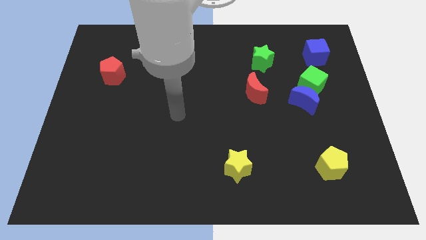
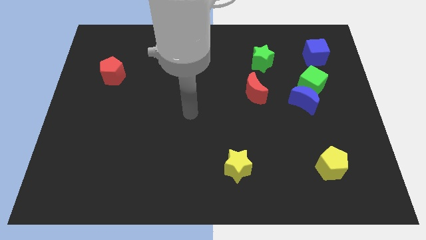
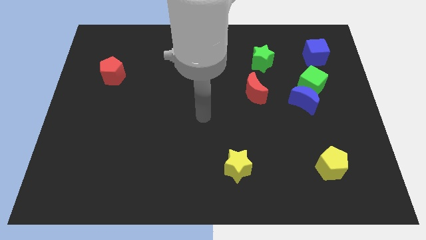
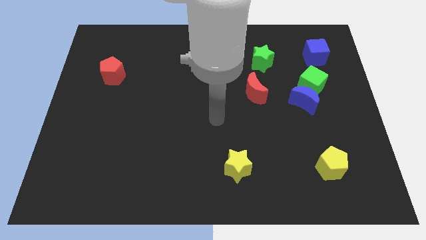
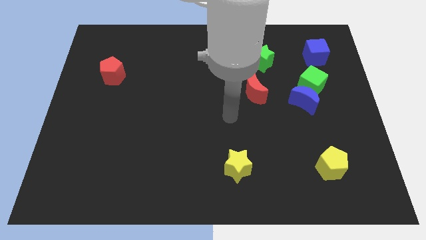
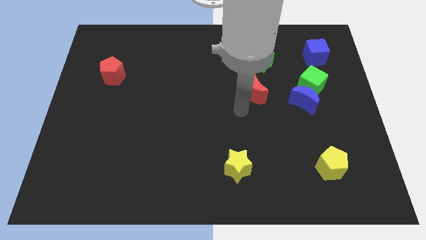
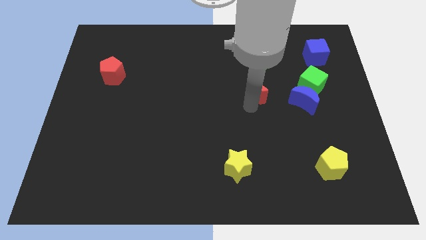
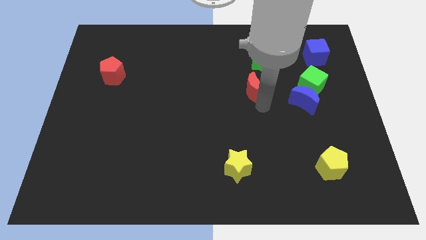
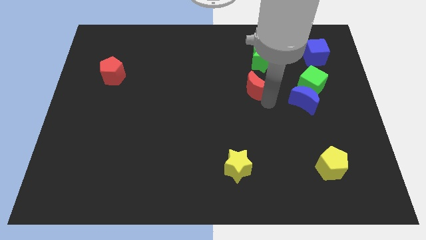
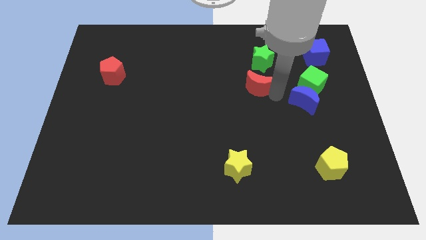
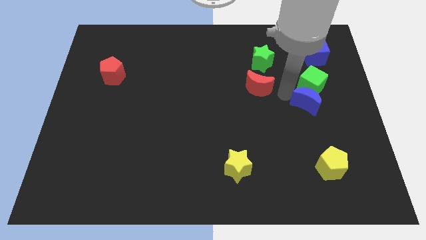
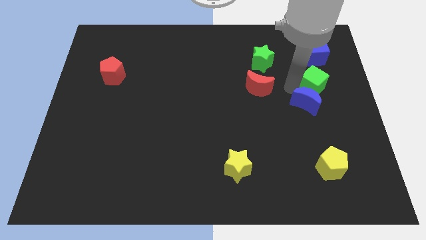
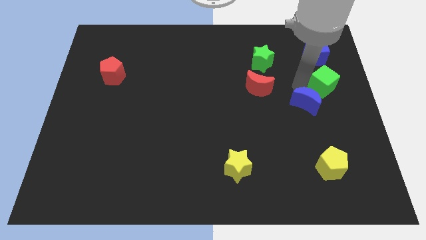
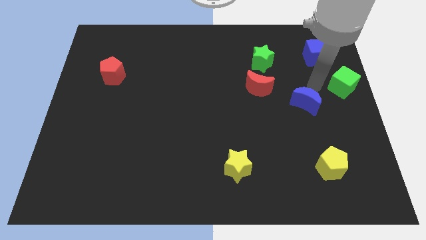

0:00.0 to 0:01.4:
move the blue moon away from the green cube

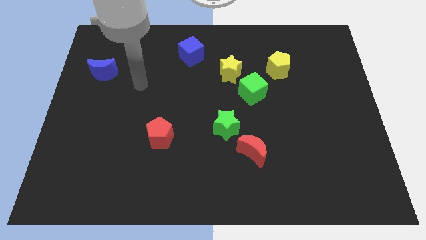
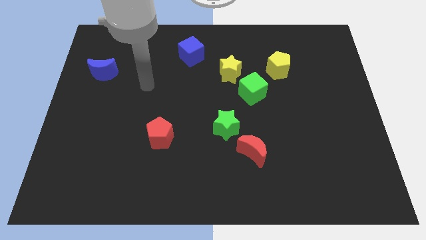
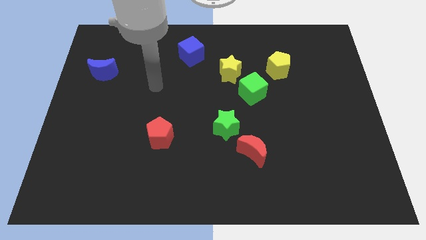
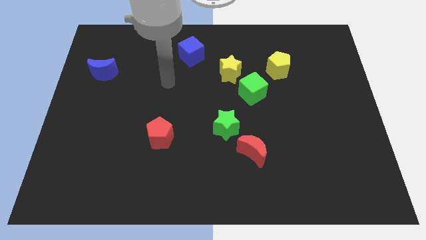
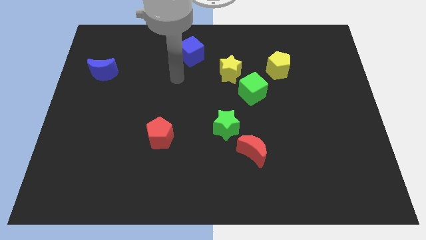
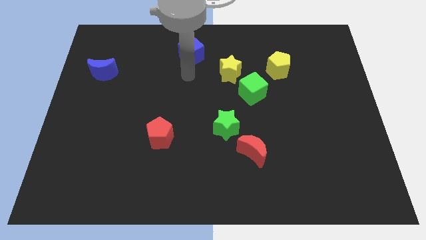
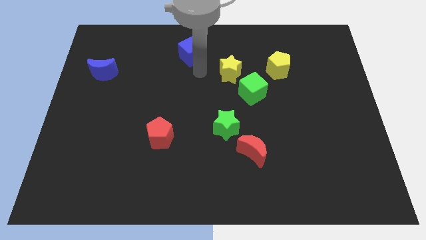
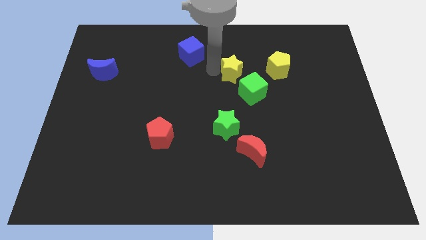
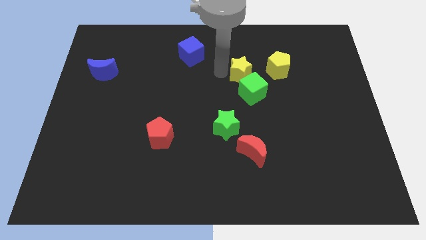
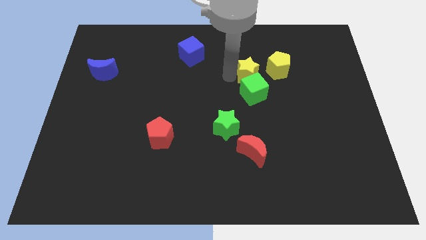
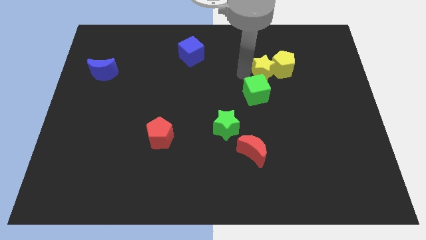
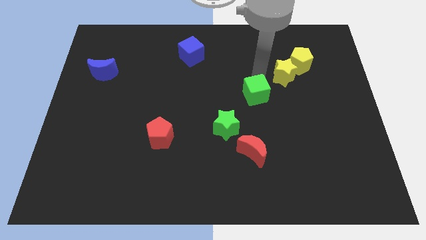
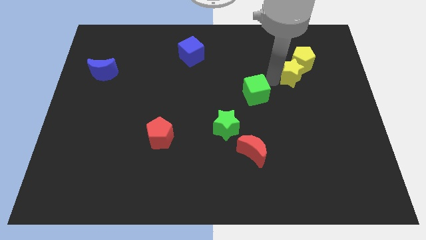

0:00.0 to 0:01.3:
move the green cube away from the yellow star

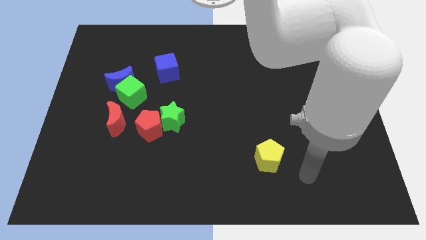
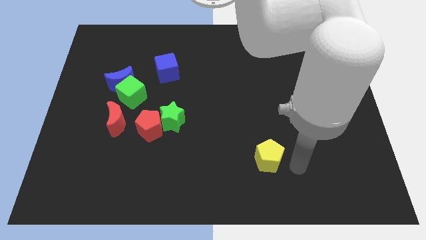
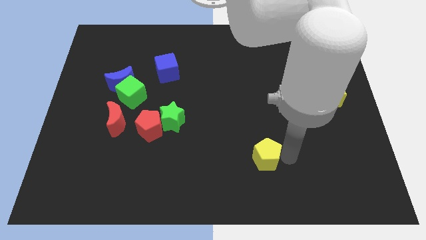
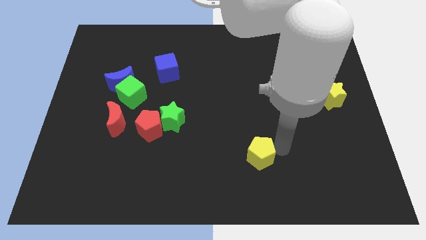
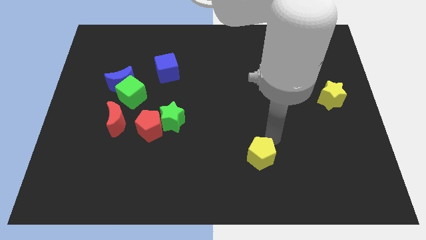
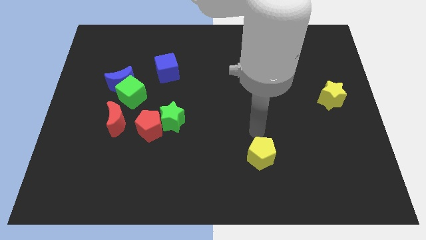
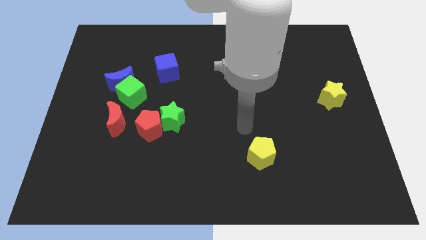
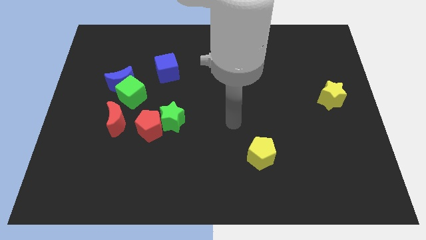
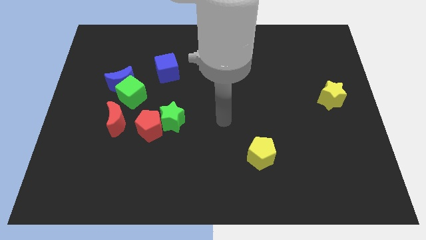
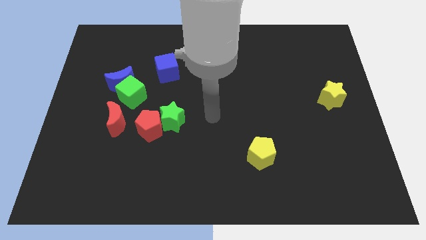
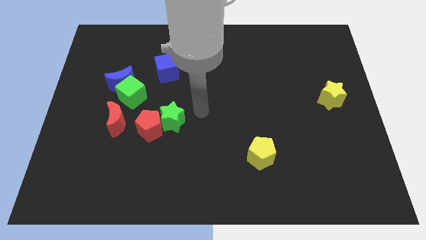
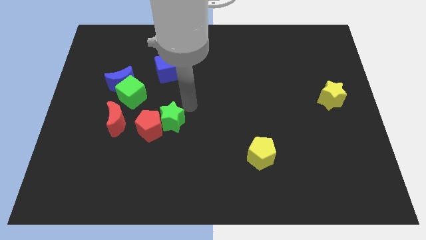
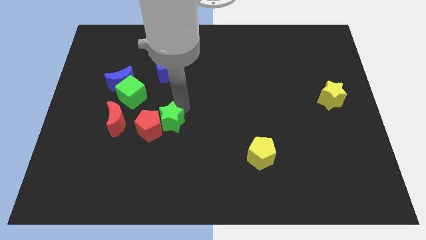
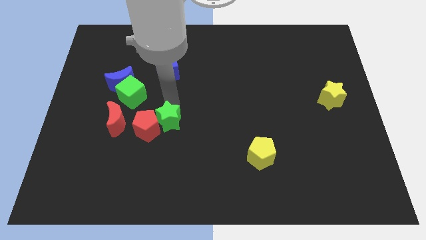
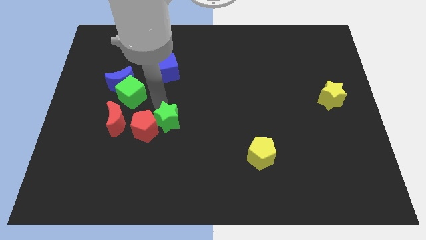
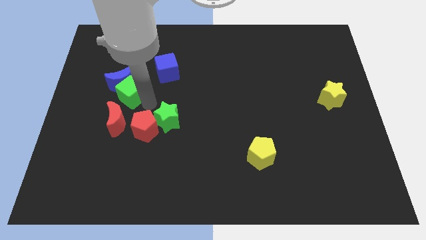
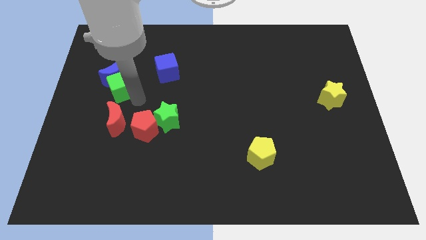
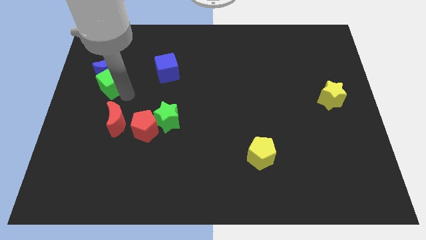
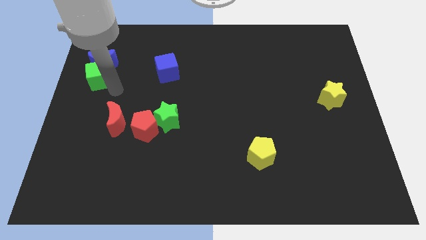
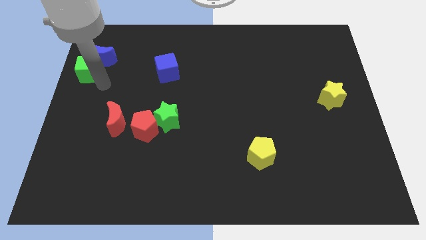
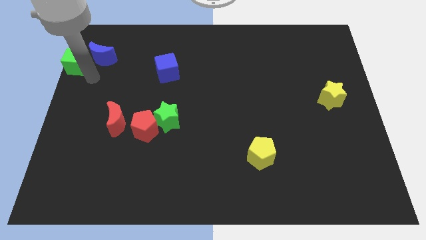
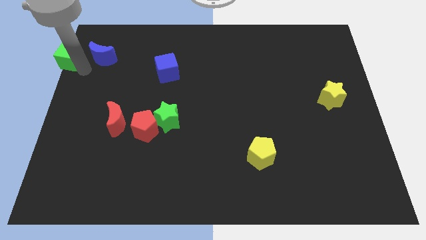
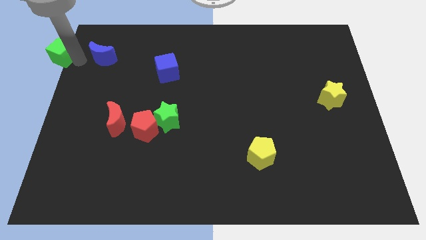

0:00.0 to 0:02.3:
separate the blue moon from the green cube

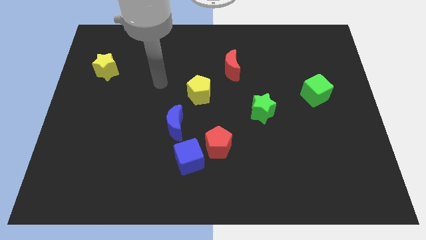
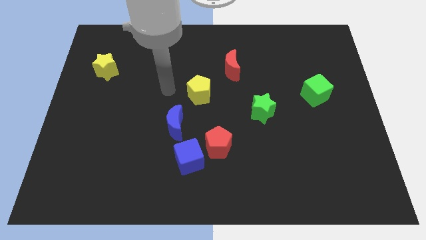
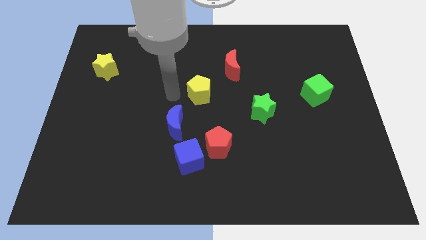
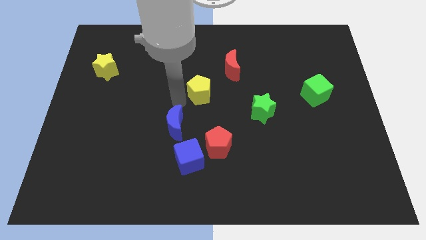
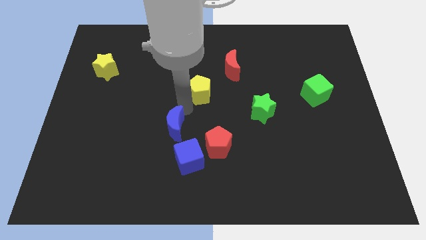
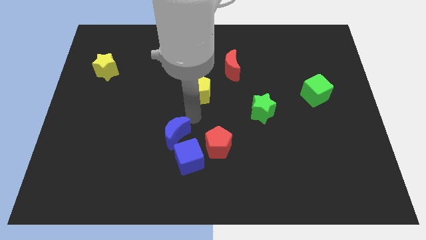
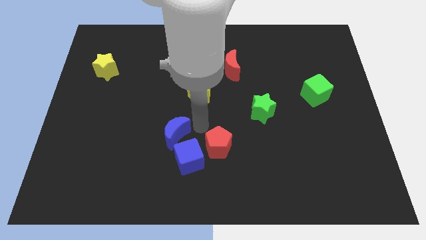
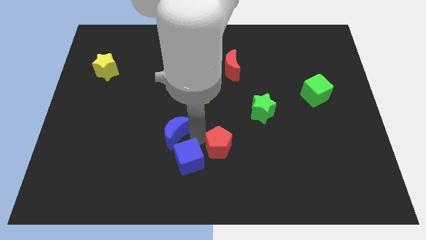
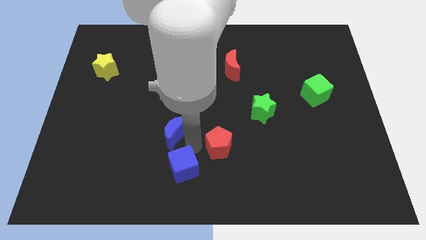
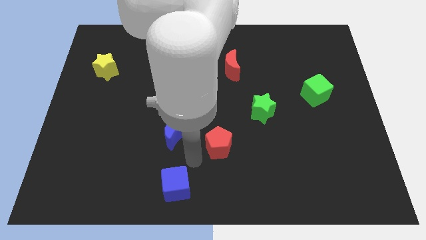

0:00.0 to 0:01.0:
separate the red pentagon from the blue cube

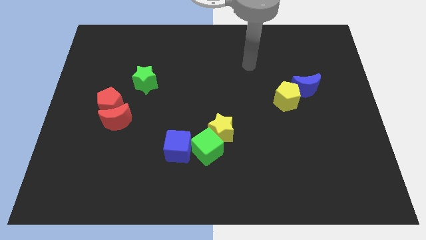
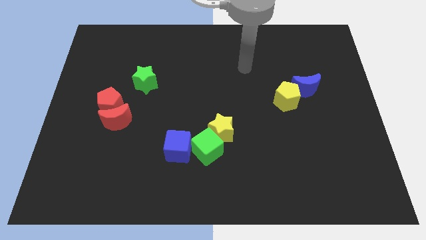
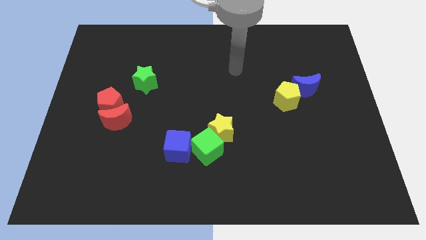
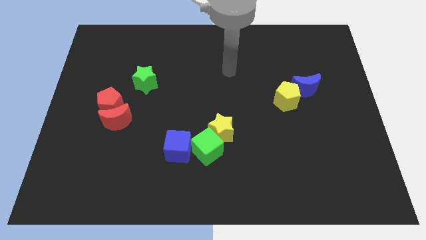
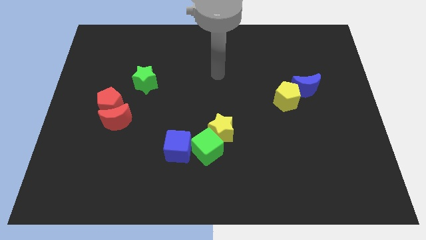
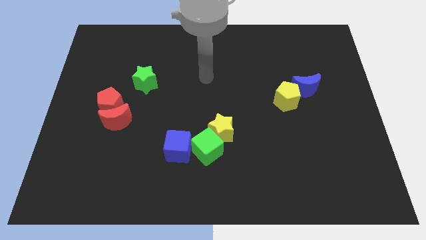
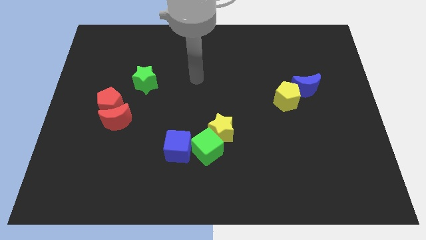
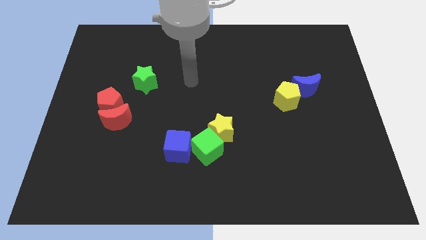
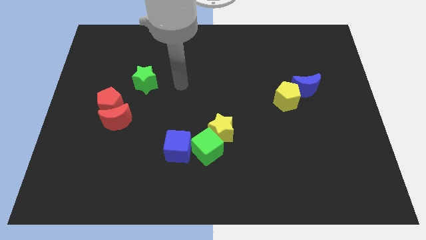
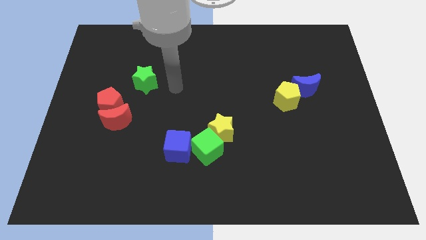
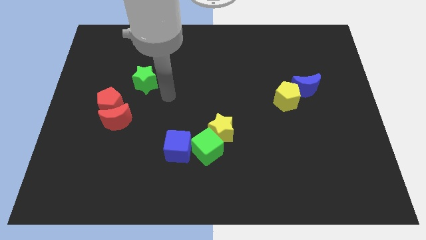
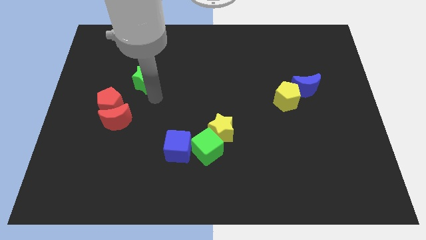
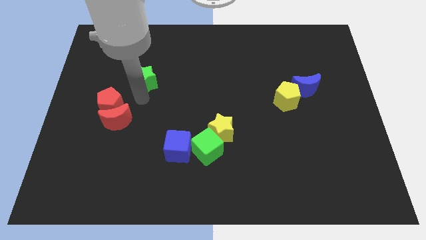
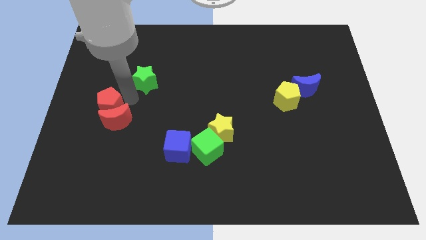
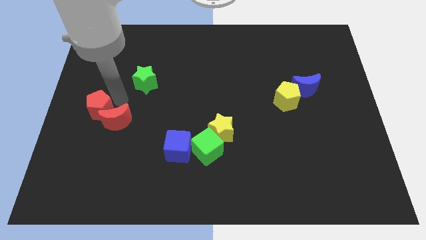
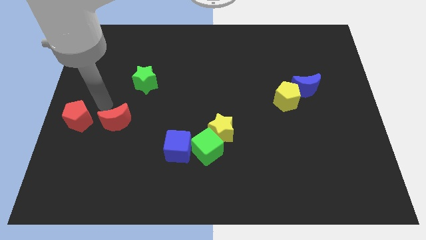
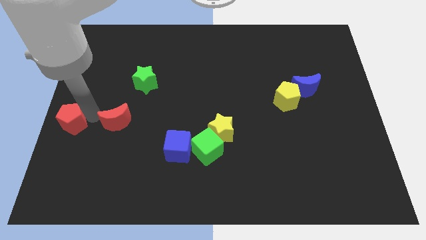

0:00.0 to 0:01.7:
move the red moon away from the red pentagon

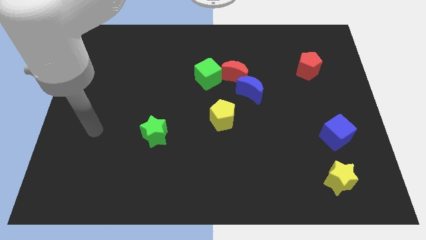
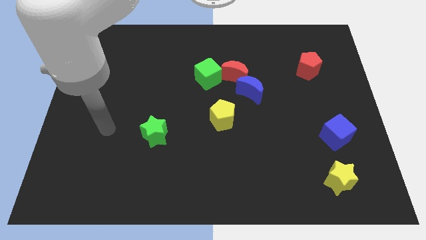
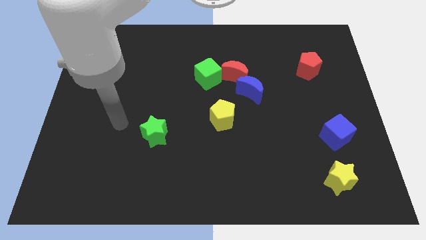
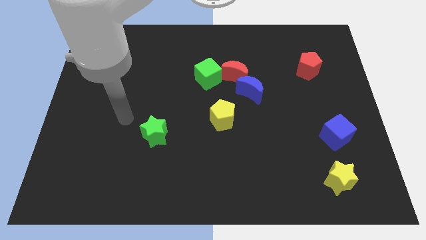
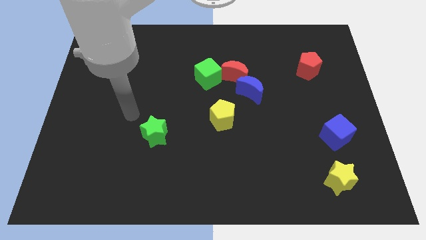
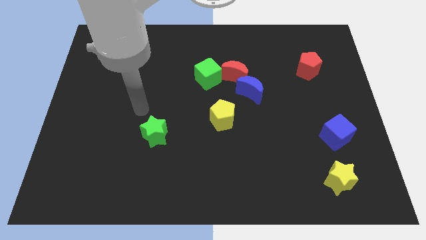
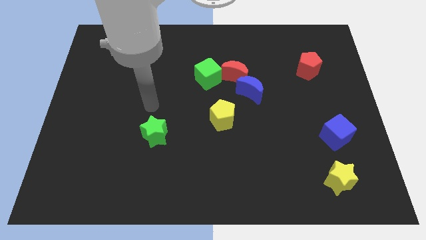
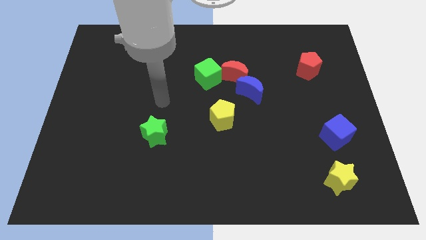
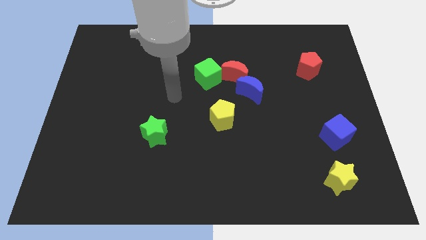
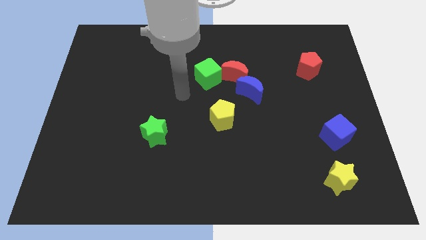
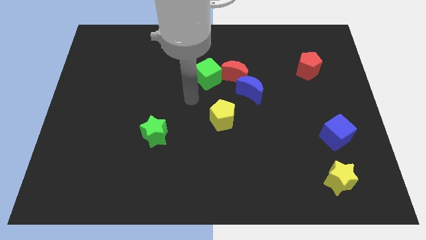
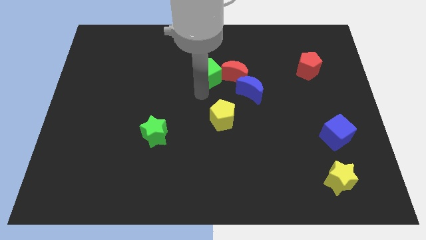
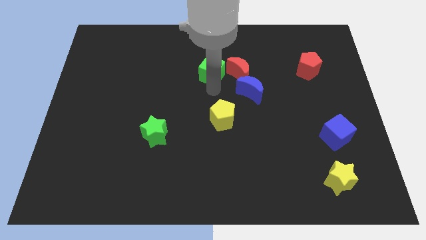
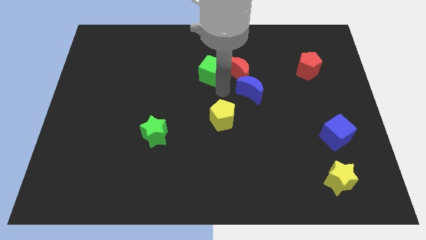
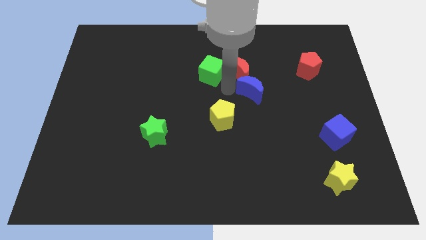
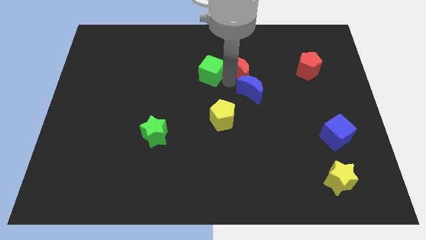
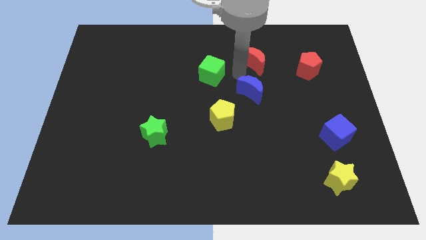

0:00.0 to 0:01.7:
move the blue moon away from the red moon
